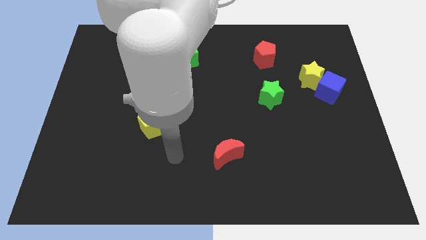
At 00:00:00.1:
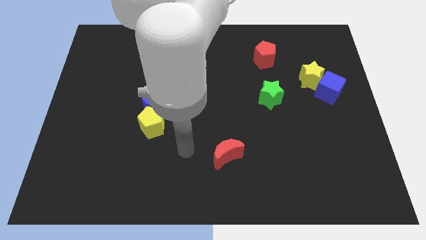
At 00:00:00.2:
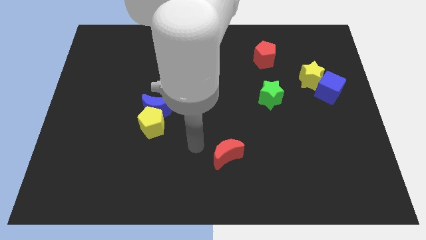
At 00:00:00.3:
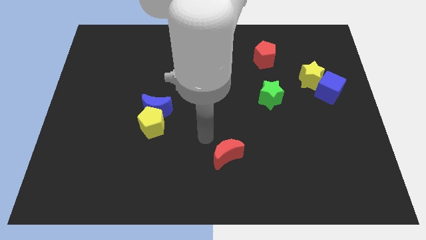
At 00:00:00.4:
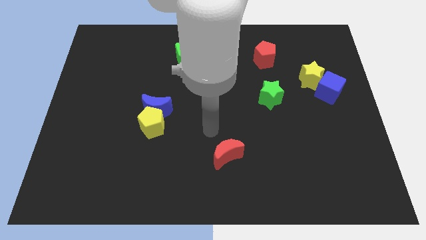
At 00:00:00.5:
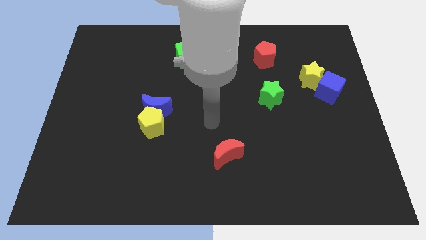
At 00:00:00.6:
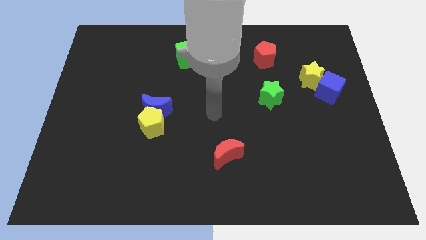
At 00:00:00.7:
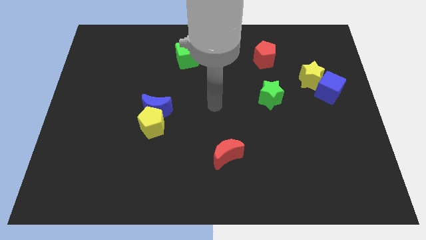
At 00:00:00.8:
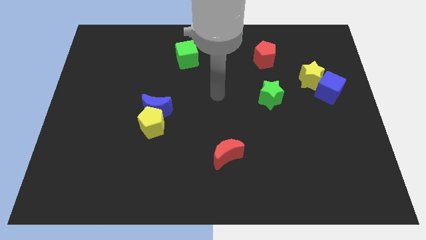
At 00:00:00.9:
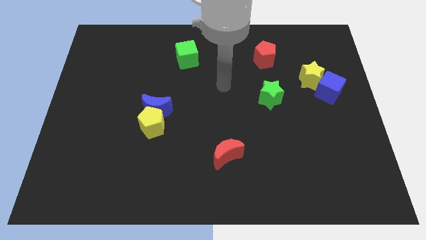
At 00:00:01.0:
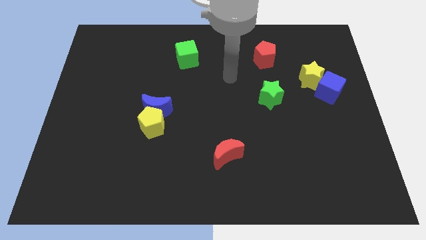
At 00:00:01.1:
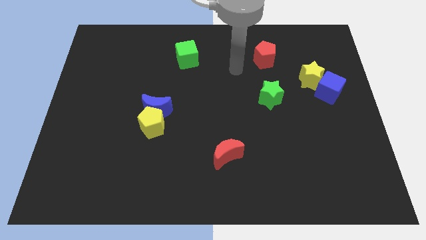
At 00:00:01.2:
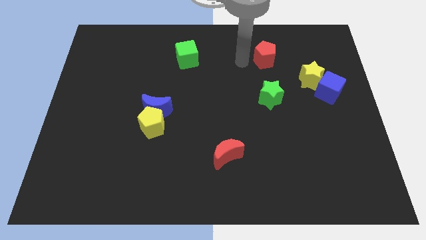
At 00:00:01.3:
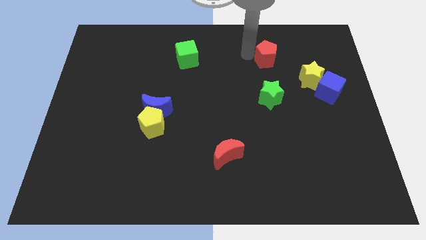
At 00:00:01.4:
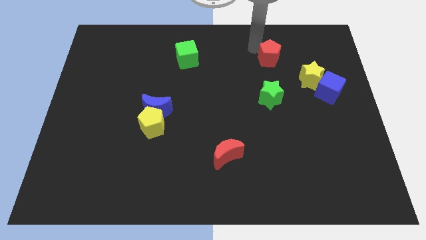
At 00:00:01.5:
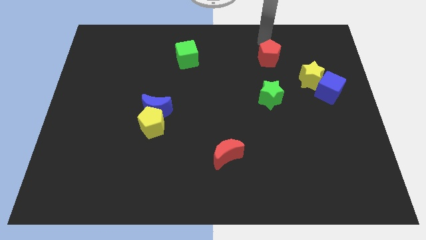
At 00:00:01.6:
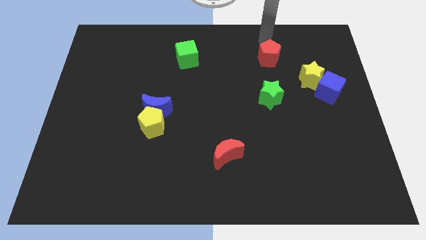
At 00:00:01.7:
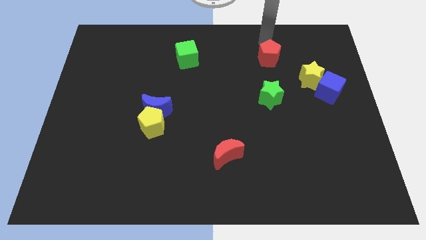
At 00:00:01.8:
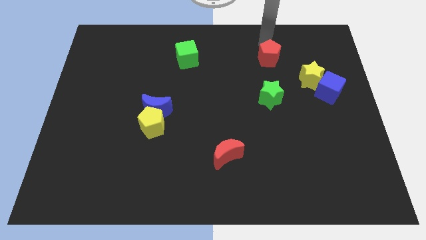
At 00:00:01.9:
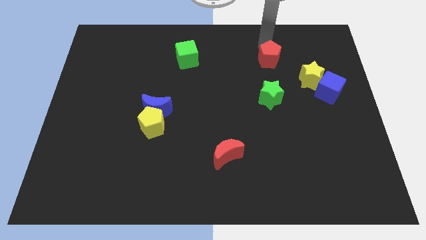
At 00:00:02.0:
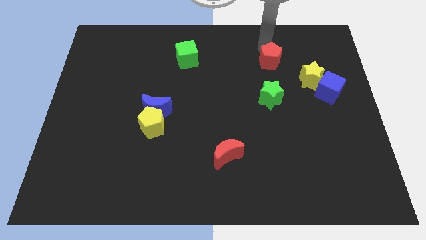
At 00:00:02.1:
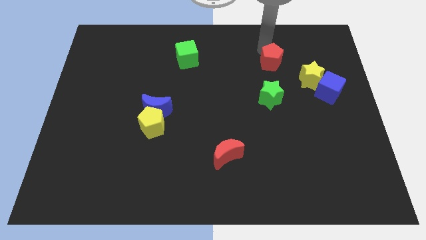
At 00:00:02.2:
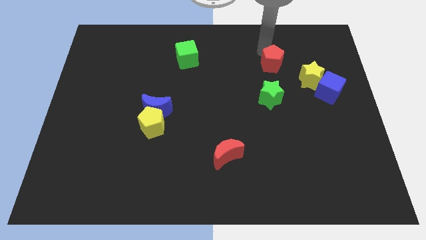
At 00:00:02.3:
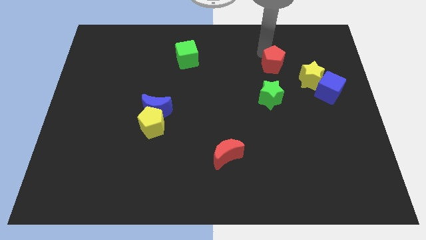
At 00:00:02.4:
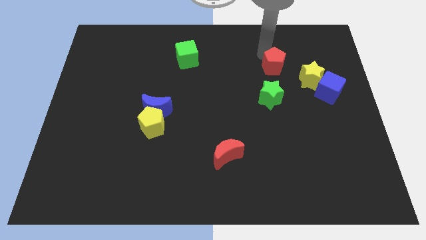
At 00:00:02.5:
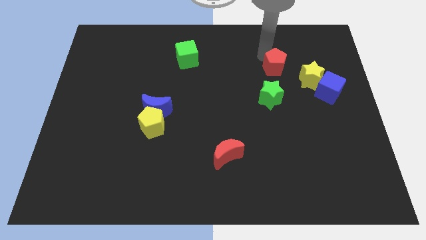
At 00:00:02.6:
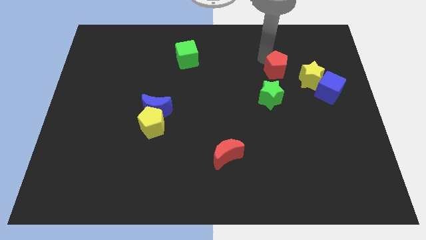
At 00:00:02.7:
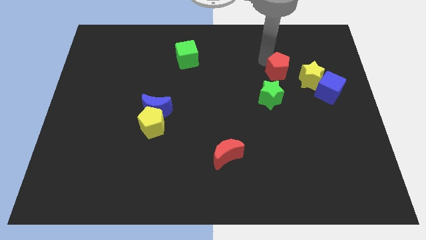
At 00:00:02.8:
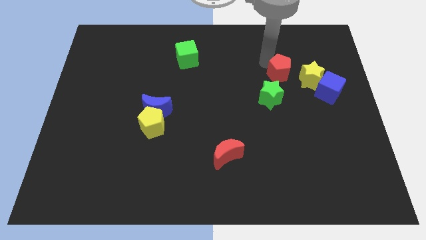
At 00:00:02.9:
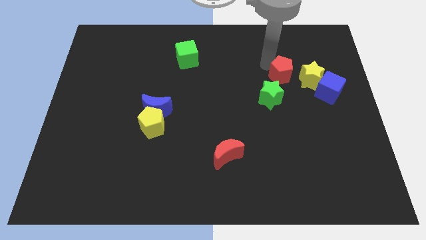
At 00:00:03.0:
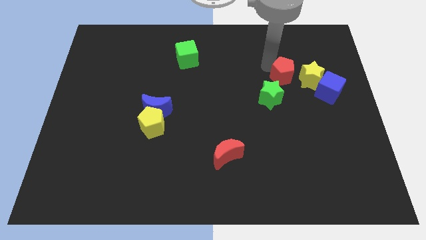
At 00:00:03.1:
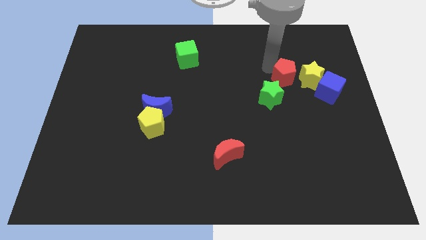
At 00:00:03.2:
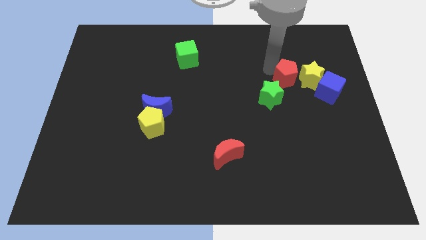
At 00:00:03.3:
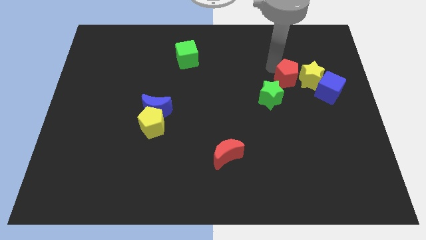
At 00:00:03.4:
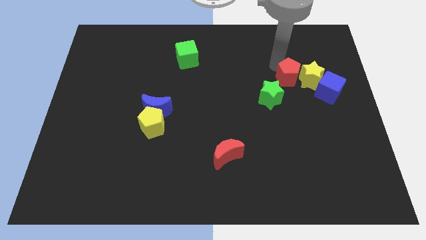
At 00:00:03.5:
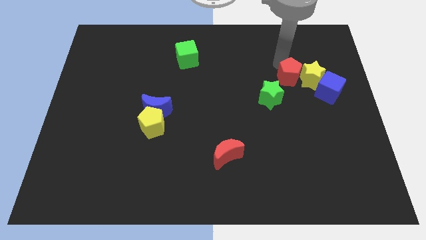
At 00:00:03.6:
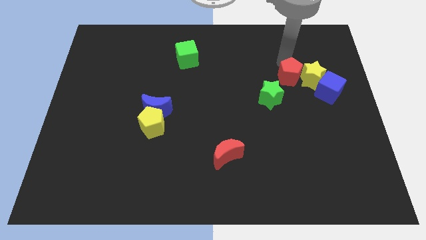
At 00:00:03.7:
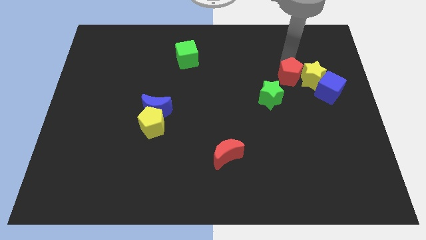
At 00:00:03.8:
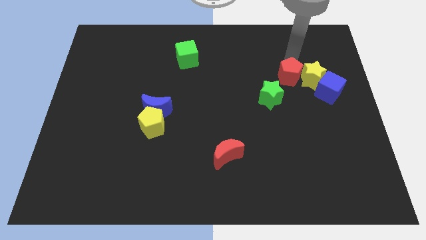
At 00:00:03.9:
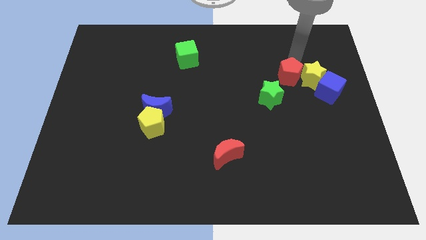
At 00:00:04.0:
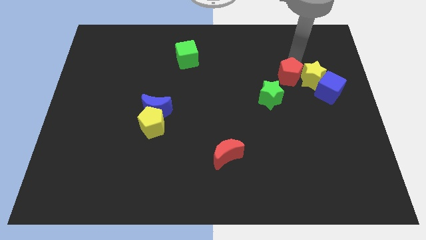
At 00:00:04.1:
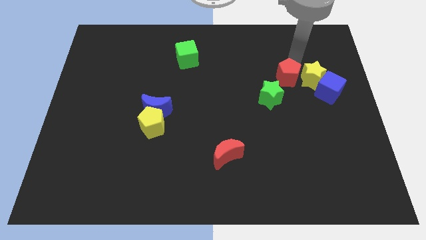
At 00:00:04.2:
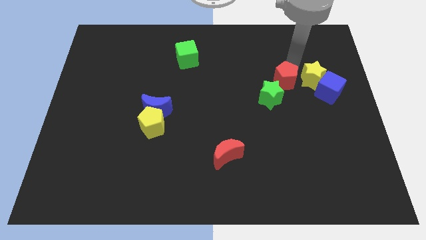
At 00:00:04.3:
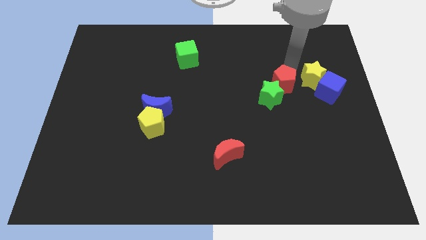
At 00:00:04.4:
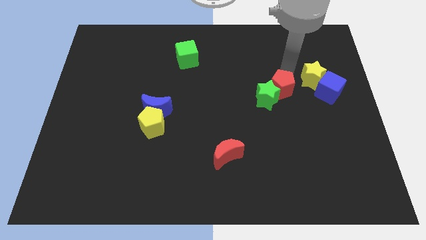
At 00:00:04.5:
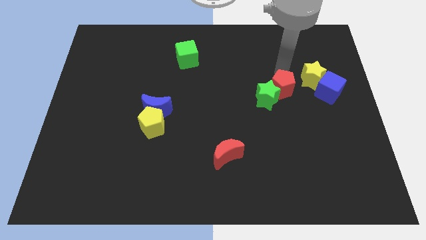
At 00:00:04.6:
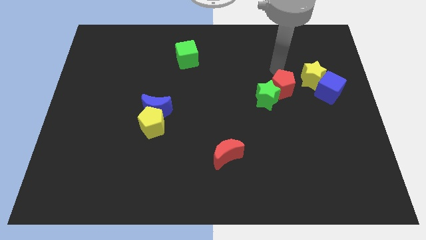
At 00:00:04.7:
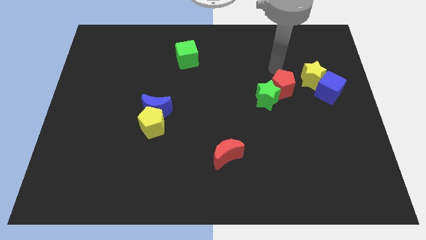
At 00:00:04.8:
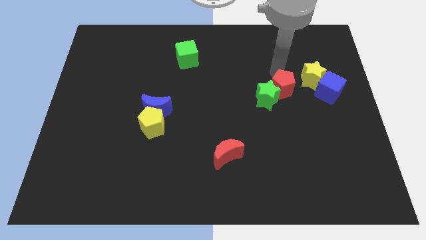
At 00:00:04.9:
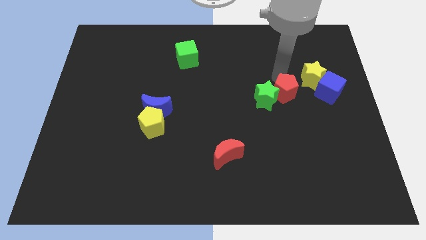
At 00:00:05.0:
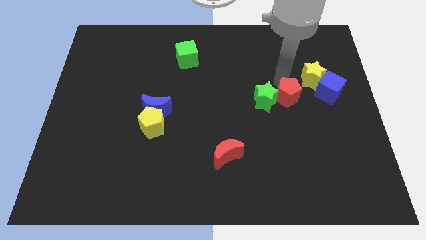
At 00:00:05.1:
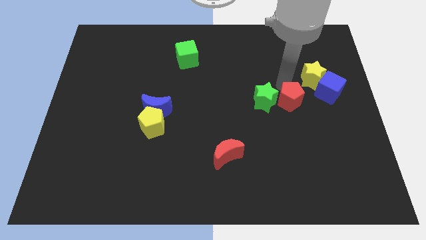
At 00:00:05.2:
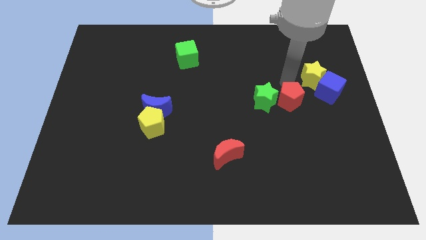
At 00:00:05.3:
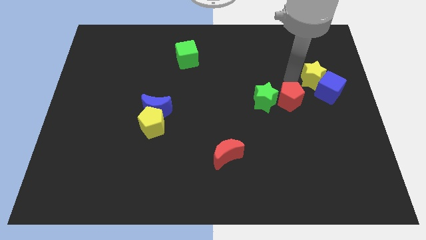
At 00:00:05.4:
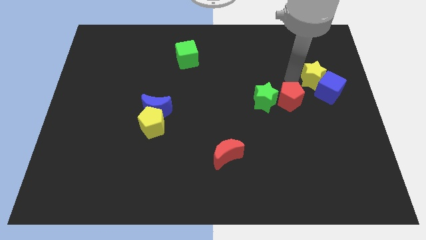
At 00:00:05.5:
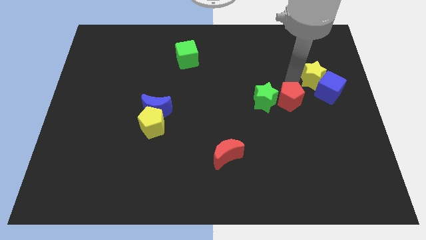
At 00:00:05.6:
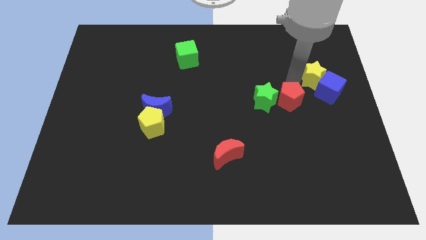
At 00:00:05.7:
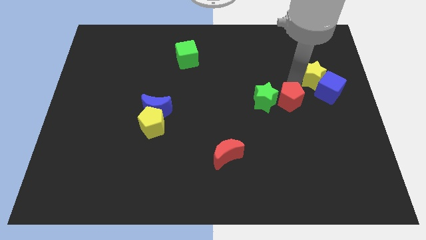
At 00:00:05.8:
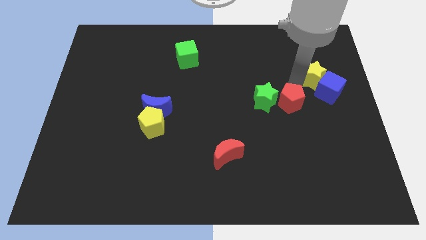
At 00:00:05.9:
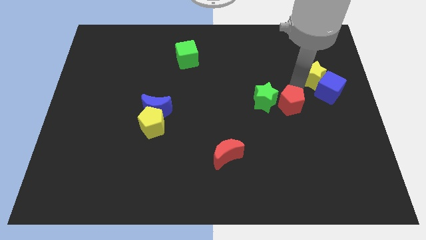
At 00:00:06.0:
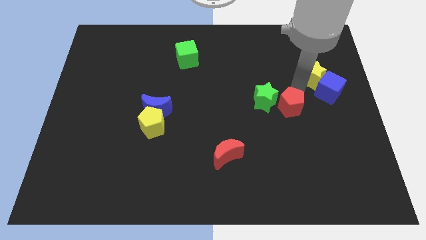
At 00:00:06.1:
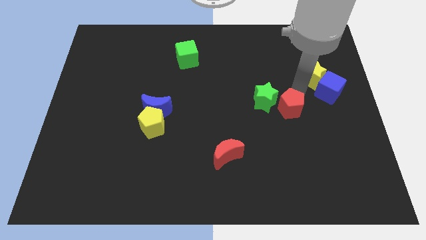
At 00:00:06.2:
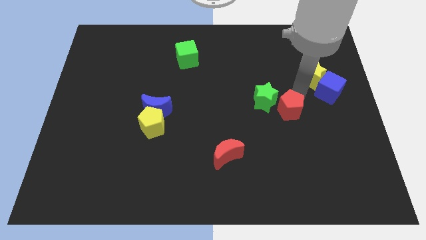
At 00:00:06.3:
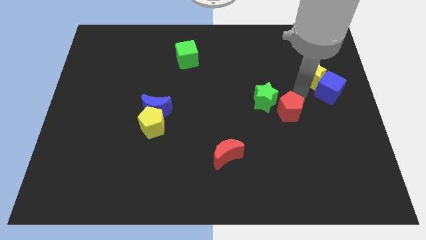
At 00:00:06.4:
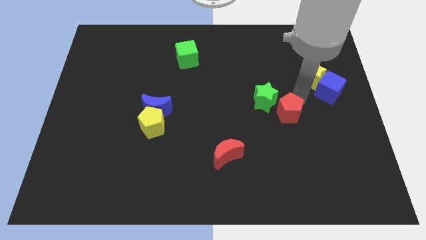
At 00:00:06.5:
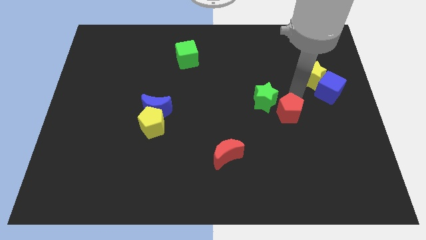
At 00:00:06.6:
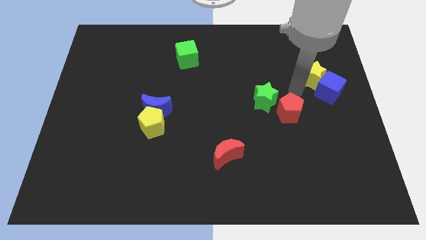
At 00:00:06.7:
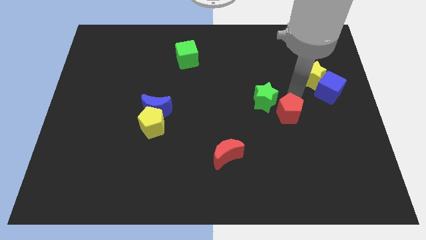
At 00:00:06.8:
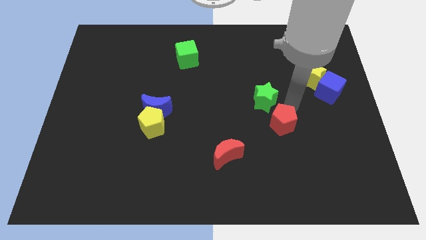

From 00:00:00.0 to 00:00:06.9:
slide the red pentagon down

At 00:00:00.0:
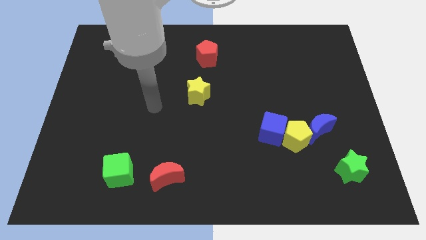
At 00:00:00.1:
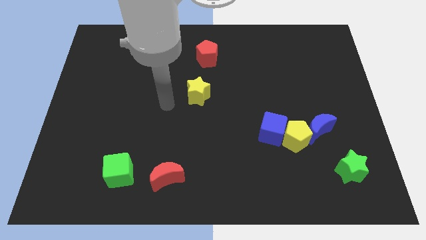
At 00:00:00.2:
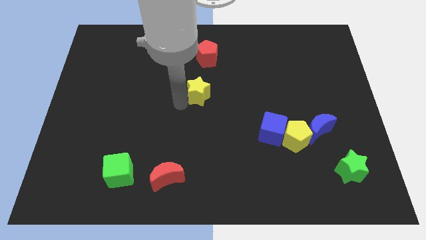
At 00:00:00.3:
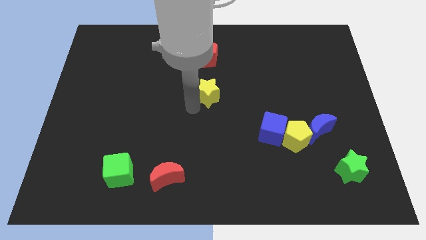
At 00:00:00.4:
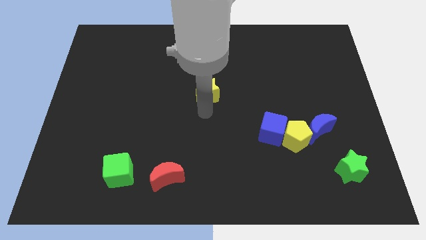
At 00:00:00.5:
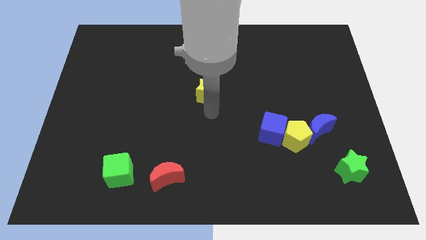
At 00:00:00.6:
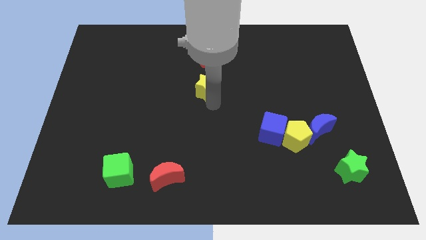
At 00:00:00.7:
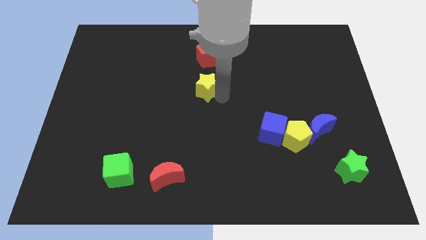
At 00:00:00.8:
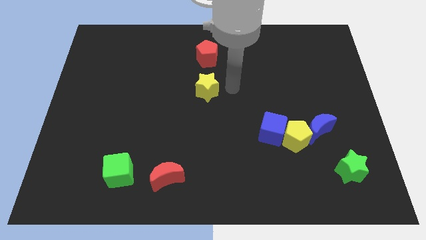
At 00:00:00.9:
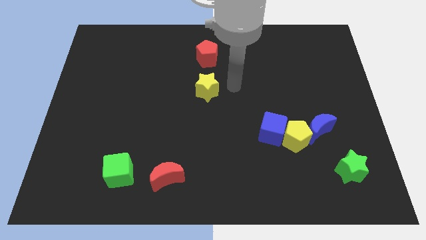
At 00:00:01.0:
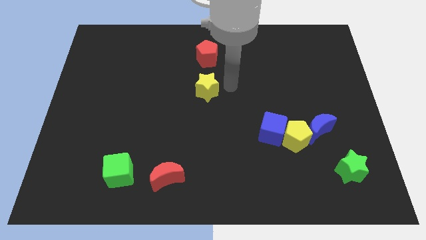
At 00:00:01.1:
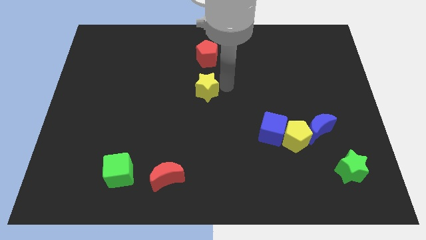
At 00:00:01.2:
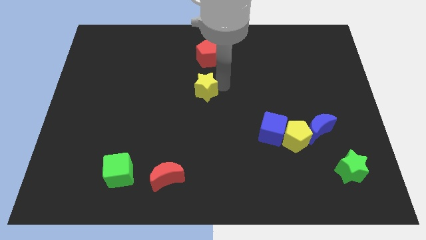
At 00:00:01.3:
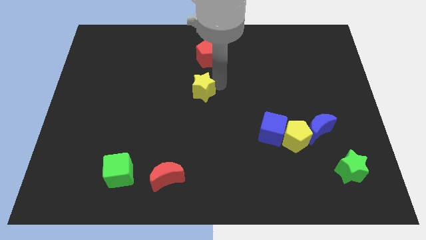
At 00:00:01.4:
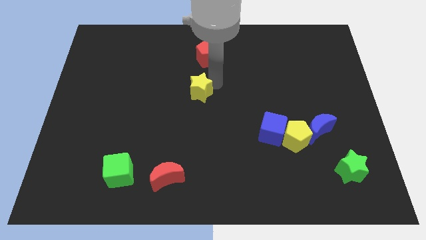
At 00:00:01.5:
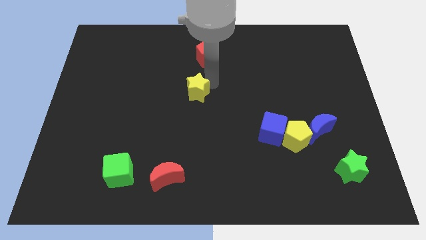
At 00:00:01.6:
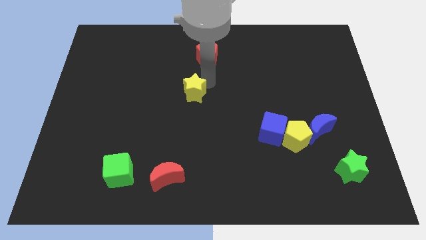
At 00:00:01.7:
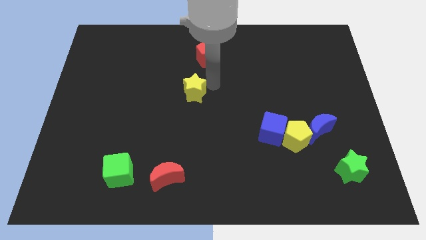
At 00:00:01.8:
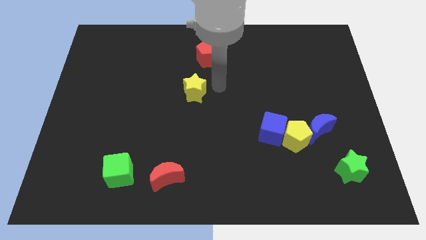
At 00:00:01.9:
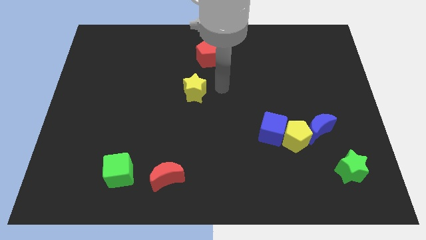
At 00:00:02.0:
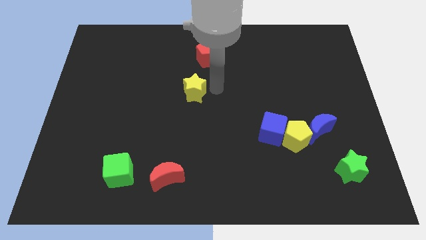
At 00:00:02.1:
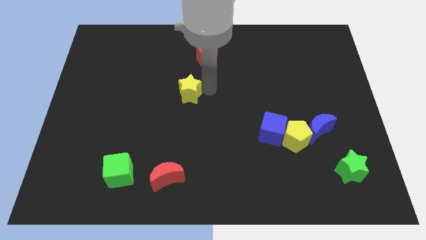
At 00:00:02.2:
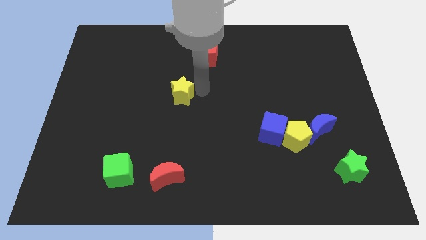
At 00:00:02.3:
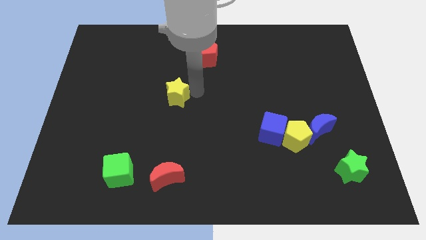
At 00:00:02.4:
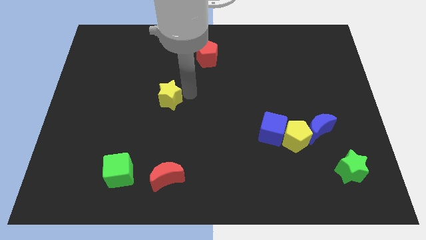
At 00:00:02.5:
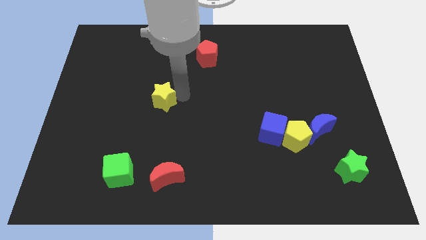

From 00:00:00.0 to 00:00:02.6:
slide the yellow star left a bit
